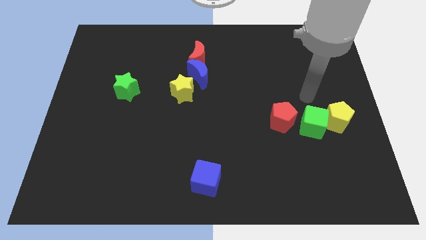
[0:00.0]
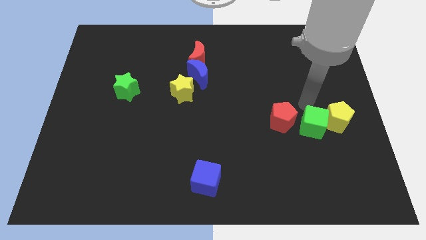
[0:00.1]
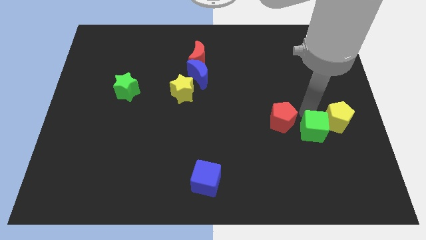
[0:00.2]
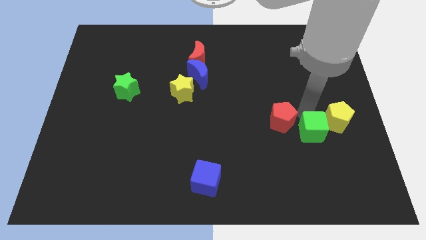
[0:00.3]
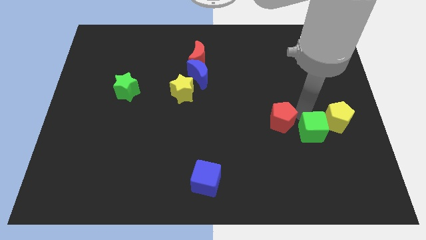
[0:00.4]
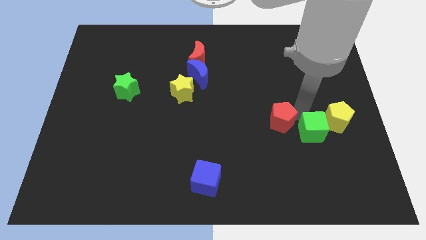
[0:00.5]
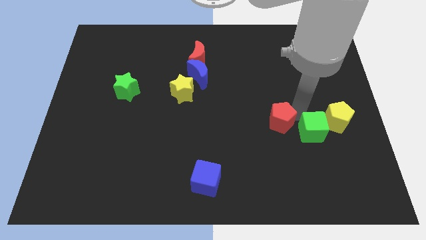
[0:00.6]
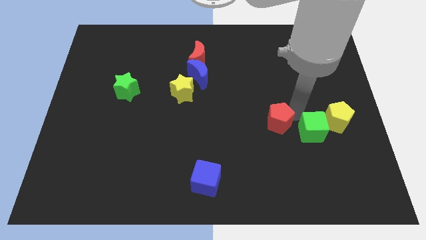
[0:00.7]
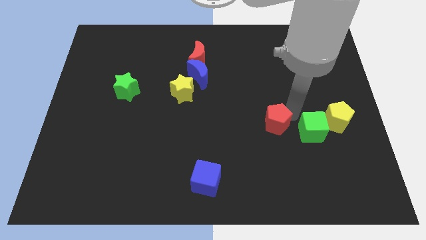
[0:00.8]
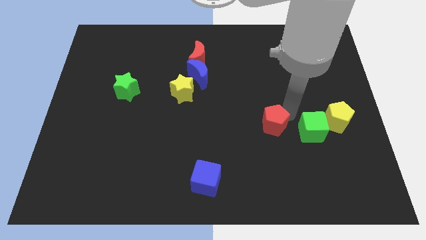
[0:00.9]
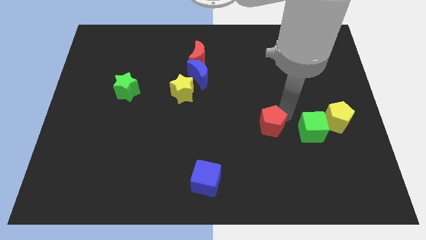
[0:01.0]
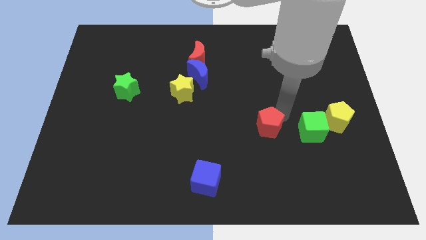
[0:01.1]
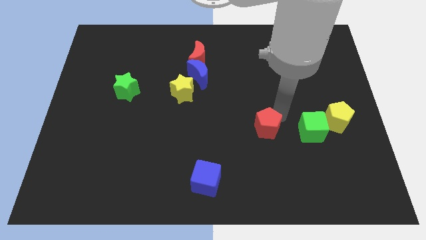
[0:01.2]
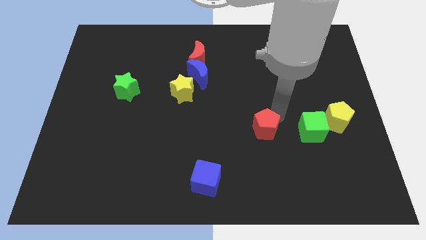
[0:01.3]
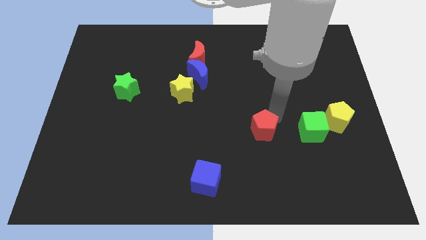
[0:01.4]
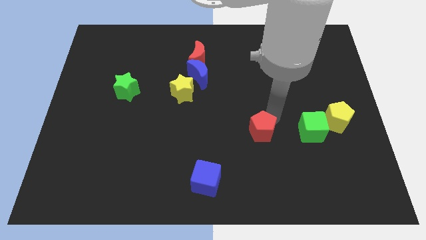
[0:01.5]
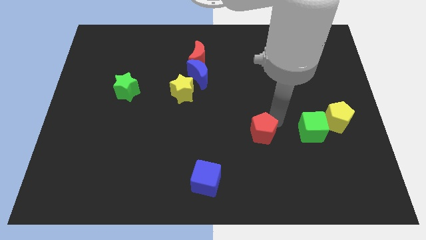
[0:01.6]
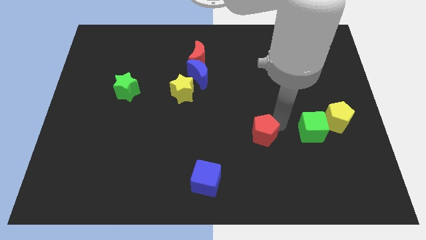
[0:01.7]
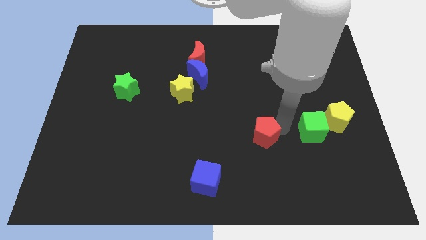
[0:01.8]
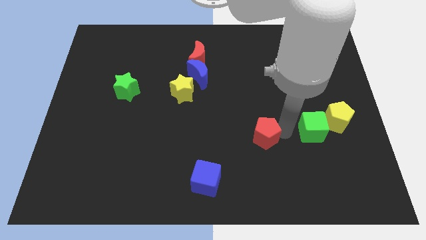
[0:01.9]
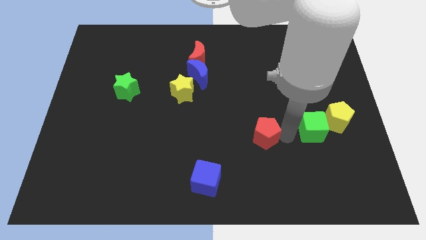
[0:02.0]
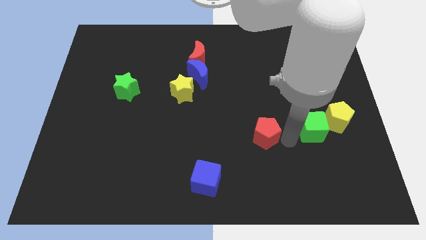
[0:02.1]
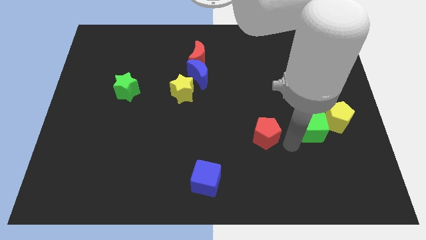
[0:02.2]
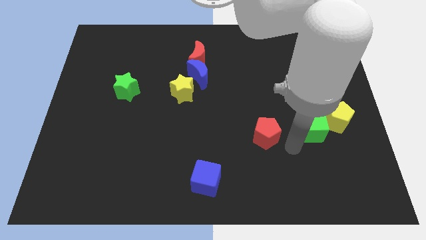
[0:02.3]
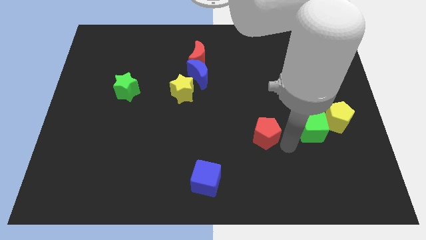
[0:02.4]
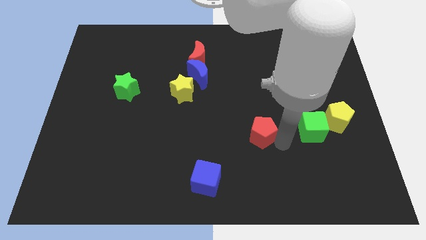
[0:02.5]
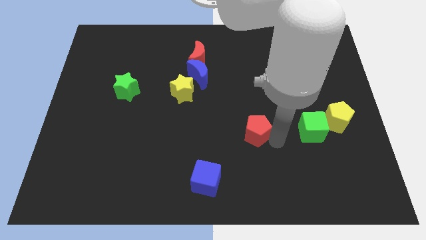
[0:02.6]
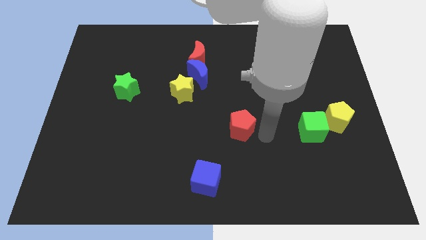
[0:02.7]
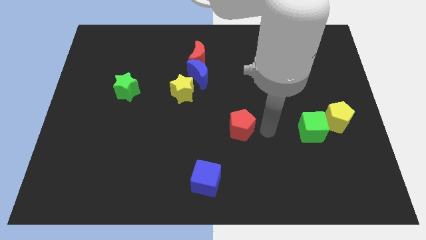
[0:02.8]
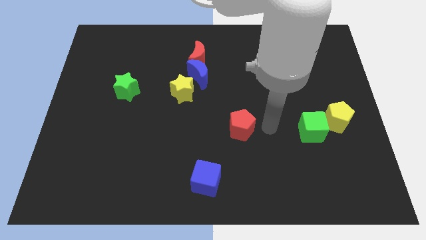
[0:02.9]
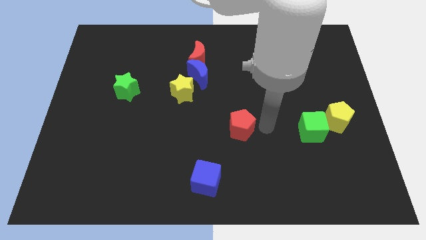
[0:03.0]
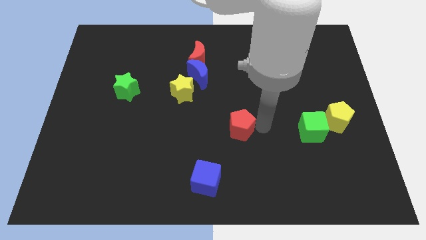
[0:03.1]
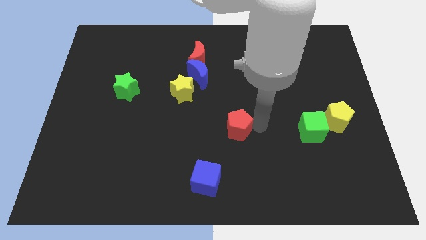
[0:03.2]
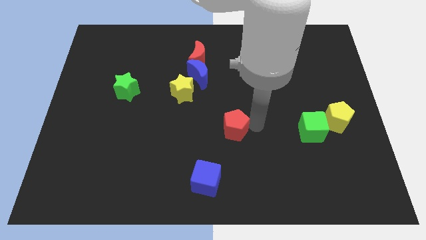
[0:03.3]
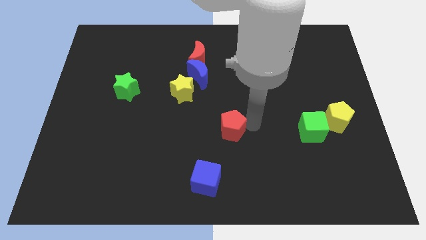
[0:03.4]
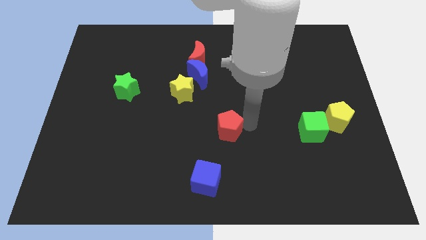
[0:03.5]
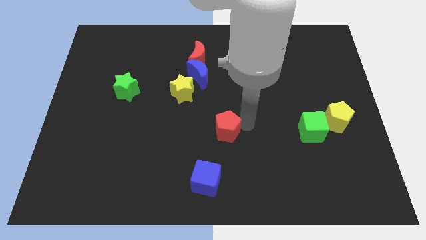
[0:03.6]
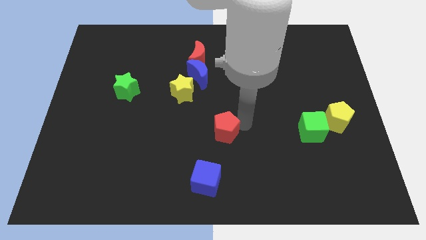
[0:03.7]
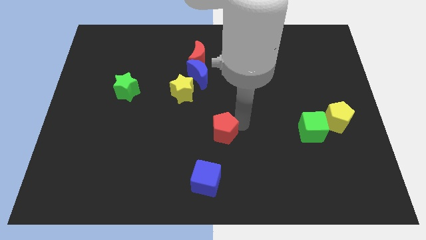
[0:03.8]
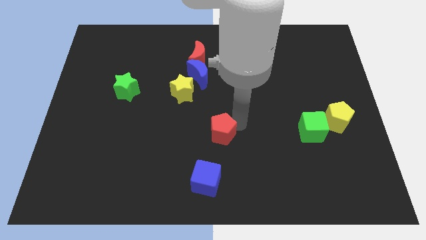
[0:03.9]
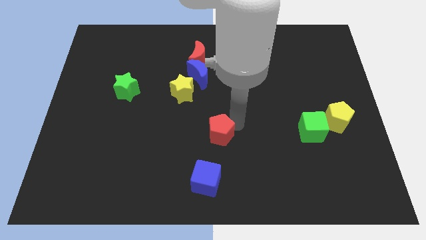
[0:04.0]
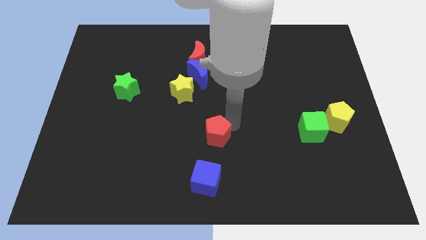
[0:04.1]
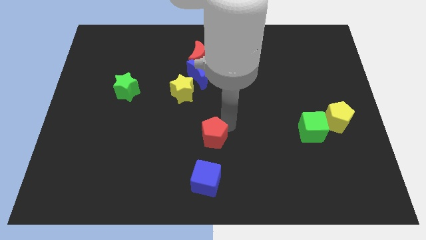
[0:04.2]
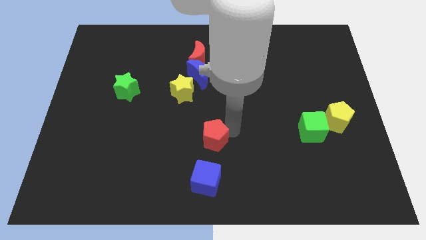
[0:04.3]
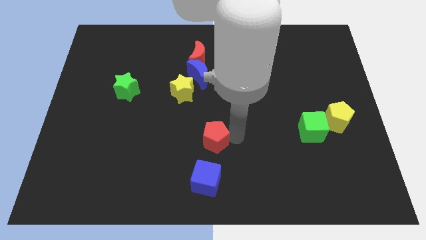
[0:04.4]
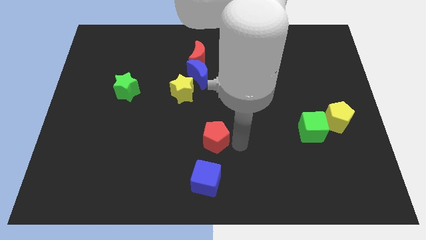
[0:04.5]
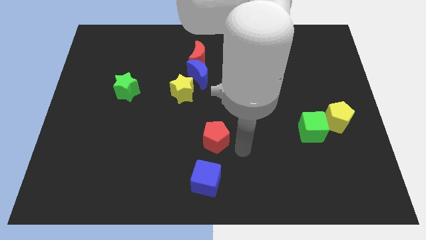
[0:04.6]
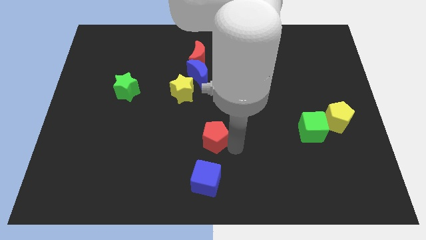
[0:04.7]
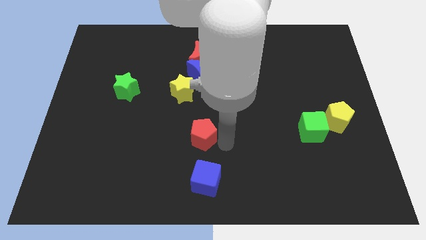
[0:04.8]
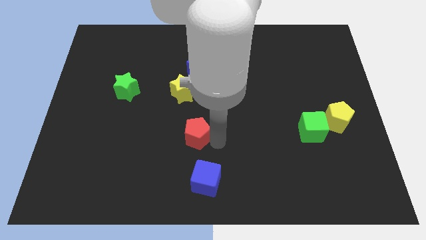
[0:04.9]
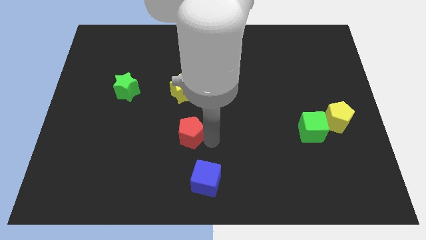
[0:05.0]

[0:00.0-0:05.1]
push the red pentagon to the left

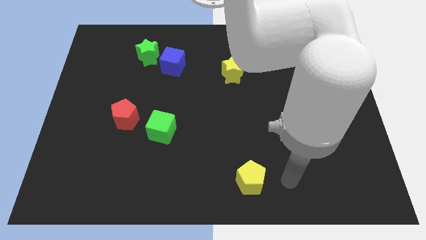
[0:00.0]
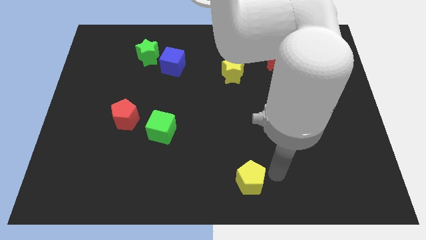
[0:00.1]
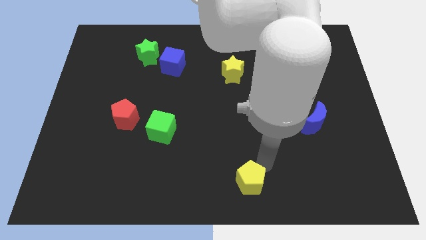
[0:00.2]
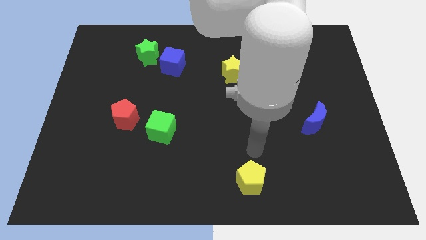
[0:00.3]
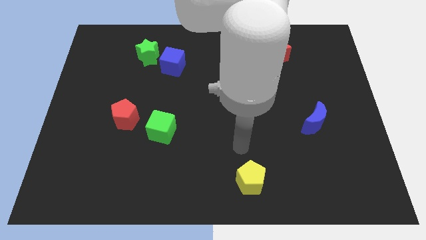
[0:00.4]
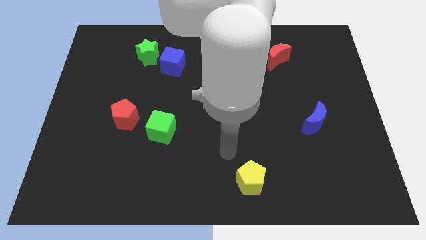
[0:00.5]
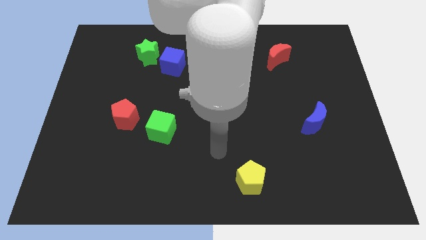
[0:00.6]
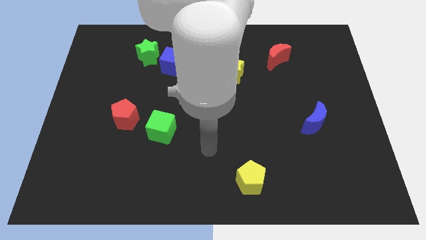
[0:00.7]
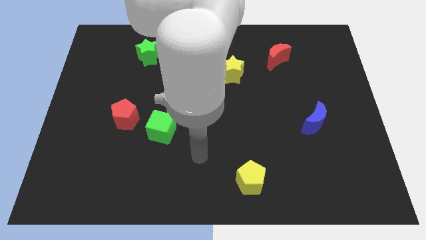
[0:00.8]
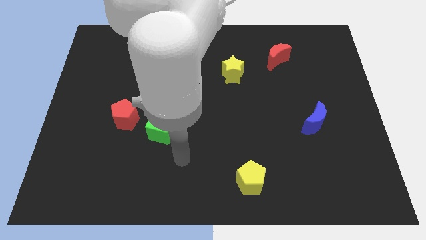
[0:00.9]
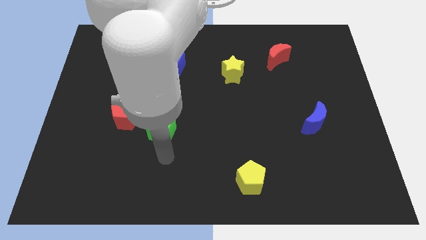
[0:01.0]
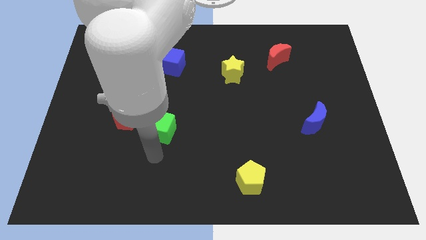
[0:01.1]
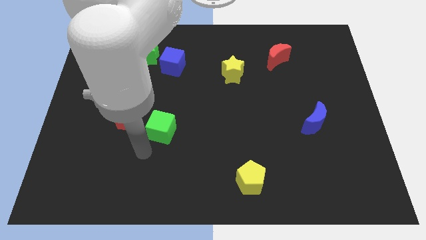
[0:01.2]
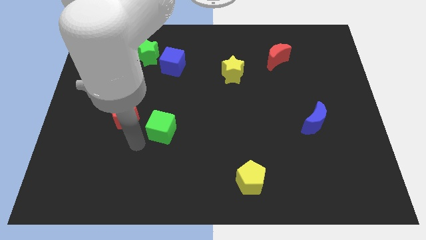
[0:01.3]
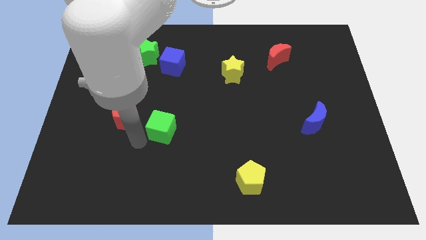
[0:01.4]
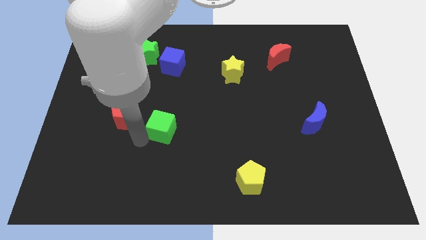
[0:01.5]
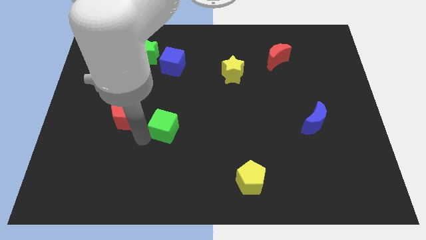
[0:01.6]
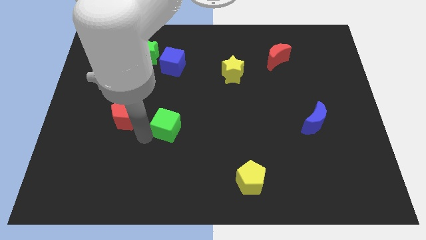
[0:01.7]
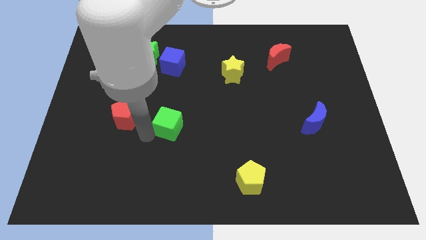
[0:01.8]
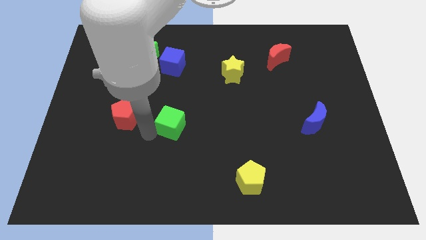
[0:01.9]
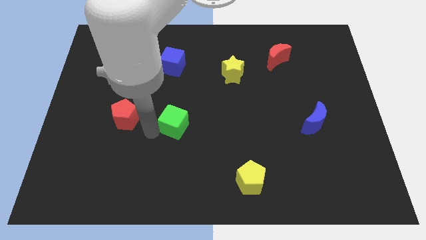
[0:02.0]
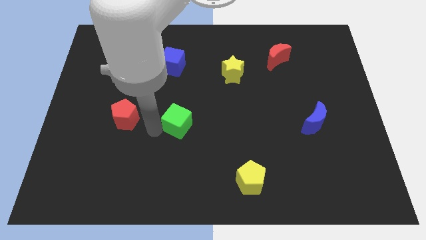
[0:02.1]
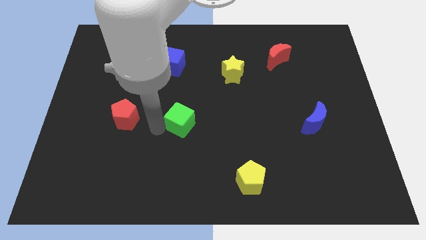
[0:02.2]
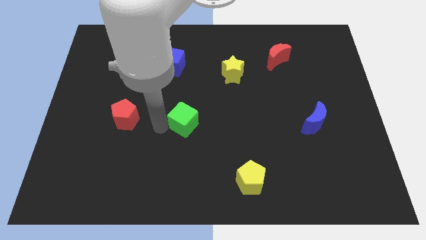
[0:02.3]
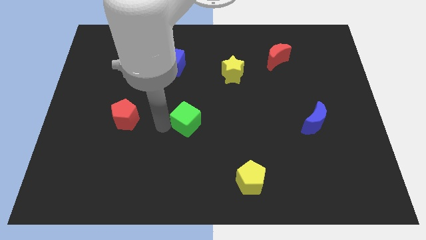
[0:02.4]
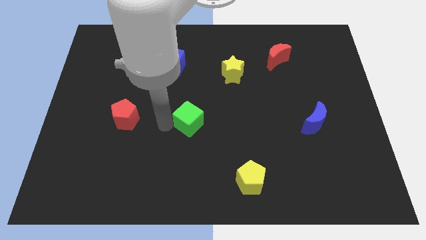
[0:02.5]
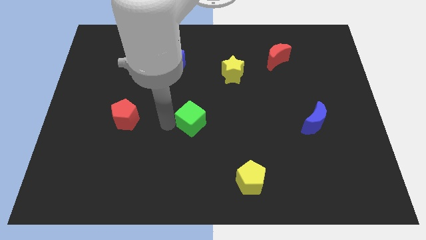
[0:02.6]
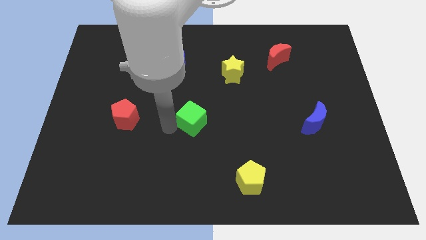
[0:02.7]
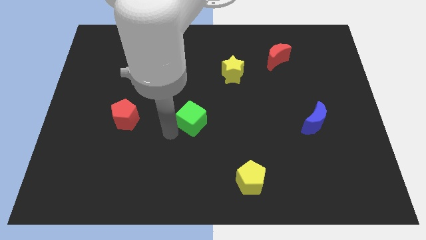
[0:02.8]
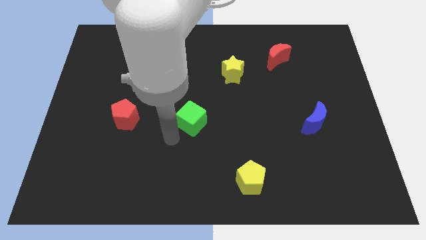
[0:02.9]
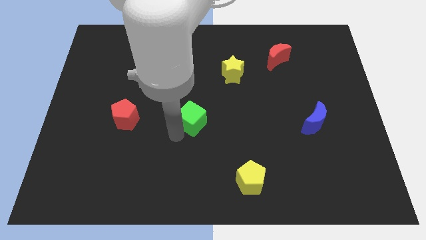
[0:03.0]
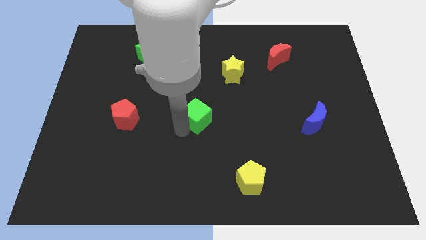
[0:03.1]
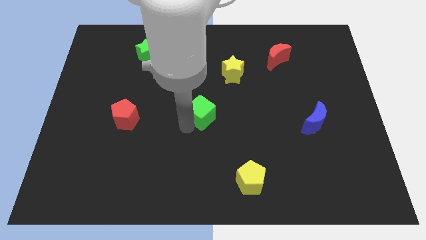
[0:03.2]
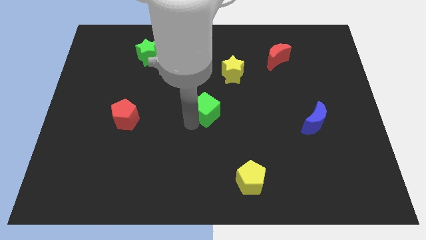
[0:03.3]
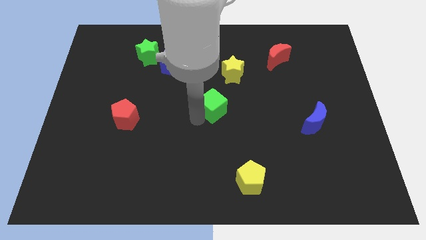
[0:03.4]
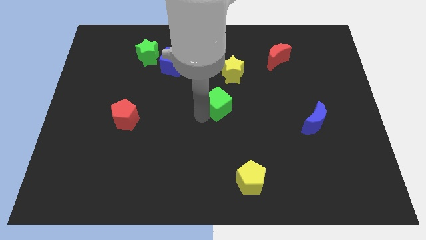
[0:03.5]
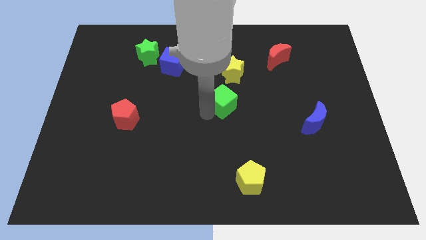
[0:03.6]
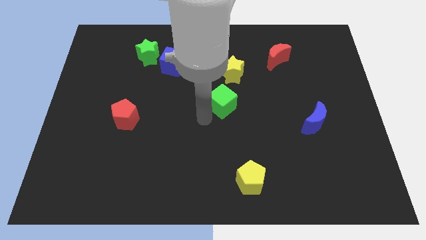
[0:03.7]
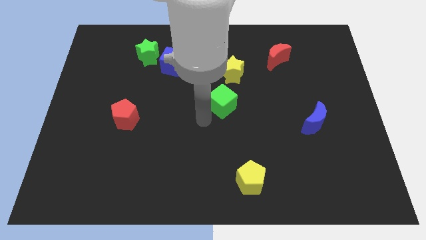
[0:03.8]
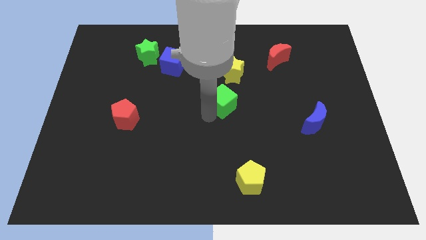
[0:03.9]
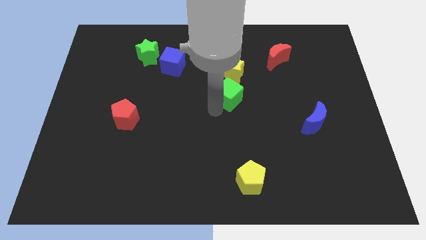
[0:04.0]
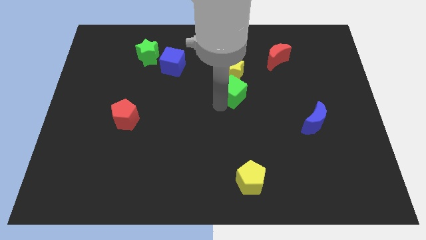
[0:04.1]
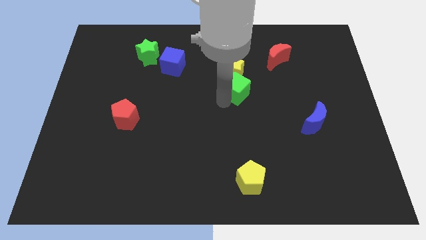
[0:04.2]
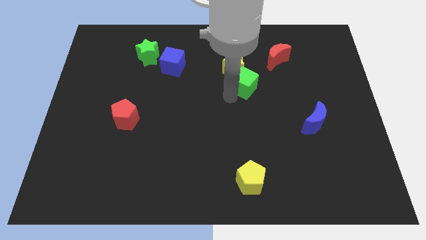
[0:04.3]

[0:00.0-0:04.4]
push the green cube upwards and right
